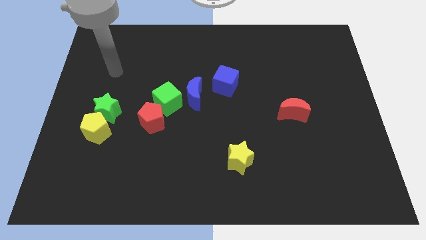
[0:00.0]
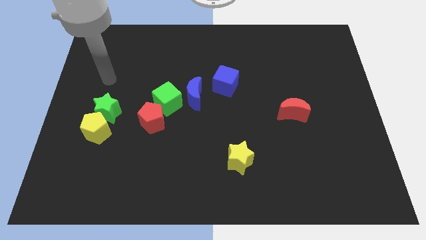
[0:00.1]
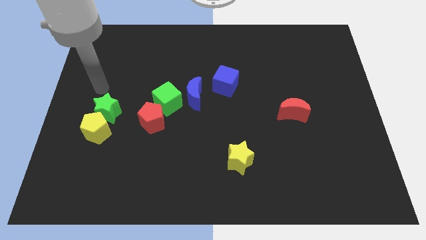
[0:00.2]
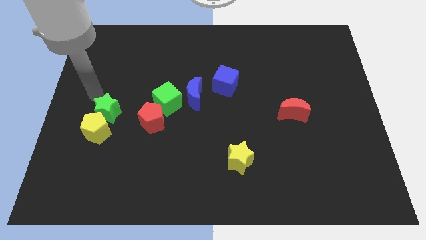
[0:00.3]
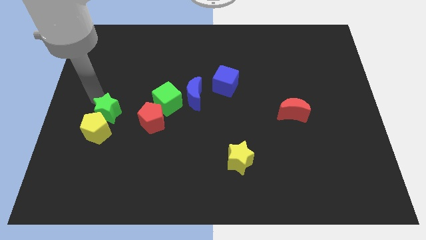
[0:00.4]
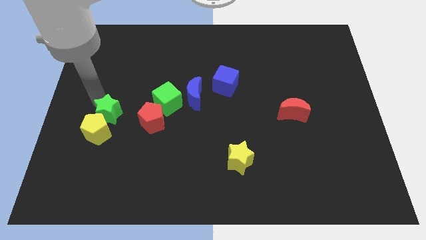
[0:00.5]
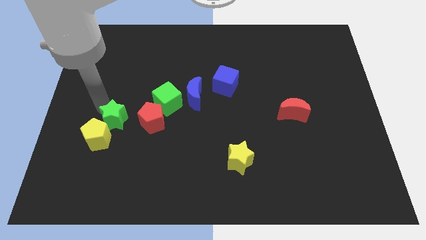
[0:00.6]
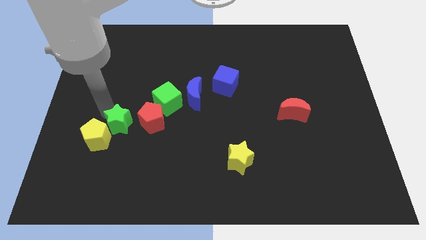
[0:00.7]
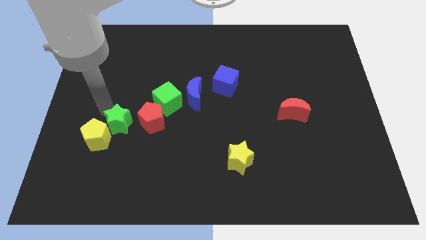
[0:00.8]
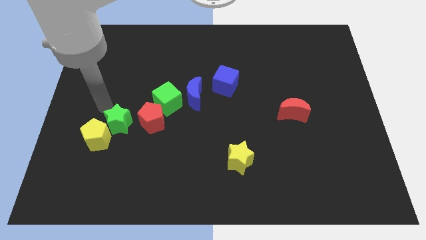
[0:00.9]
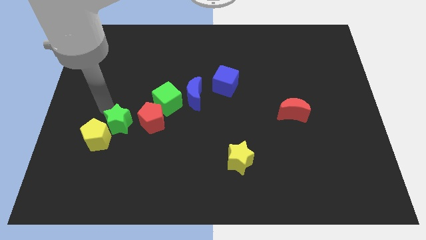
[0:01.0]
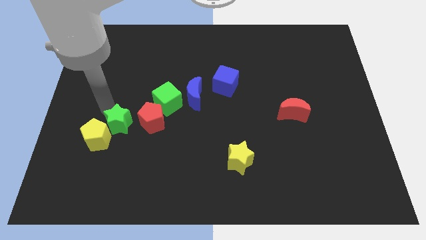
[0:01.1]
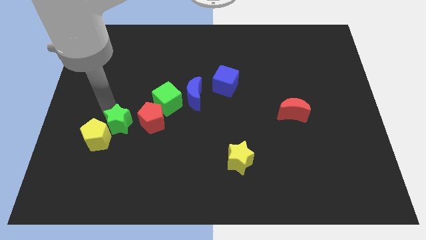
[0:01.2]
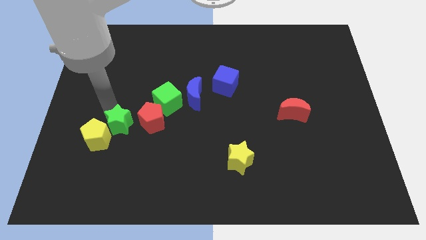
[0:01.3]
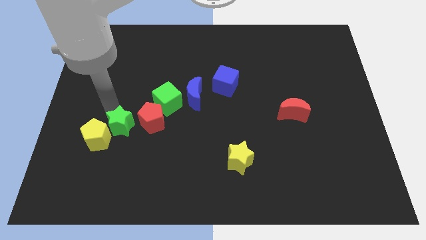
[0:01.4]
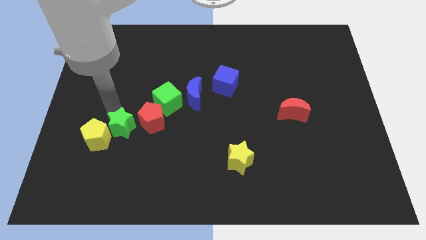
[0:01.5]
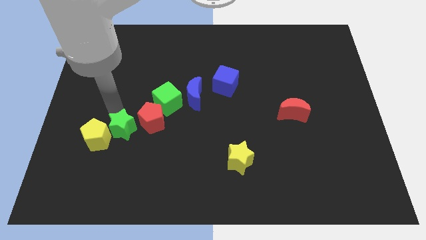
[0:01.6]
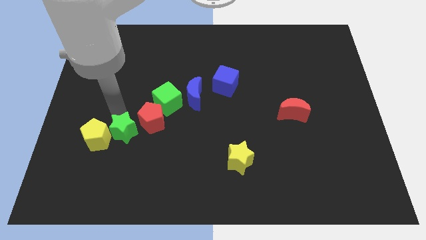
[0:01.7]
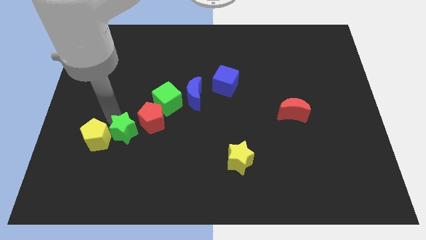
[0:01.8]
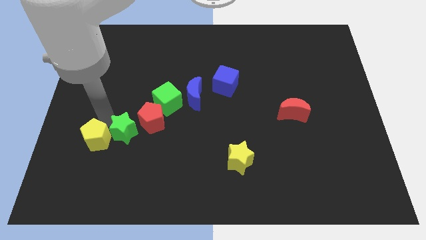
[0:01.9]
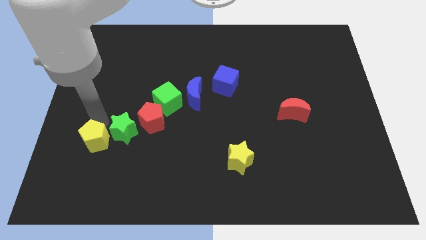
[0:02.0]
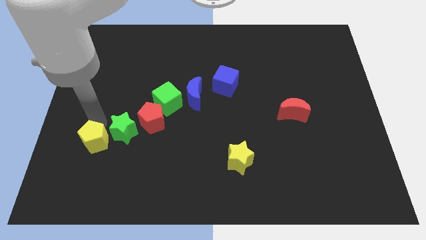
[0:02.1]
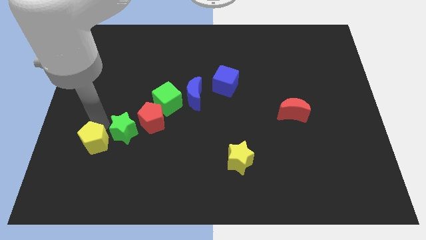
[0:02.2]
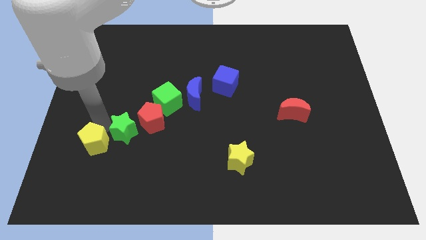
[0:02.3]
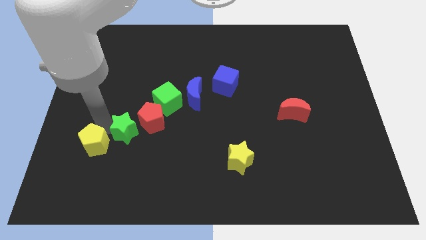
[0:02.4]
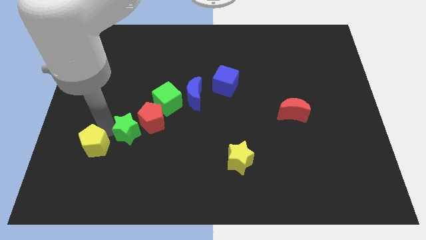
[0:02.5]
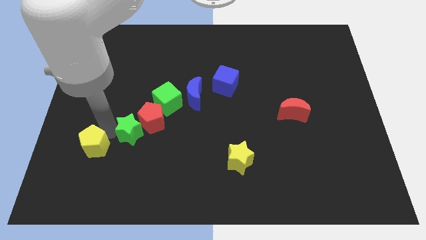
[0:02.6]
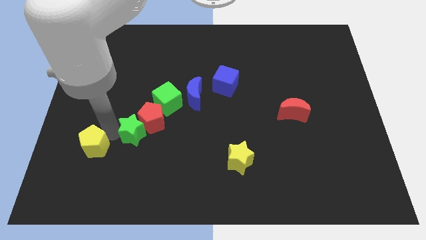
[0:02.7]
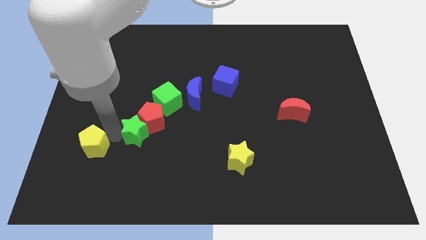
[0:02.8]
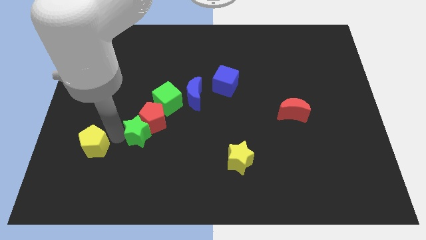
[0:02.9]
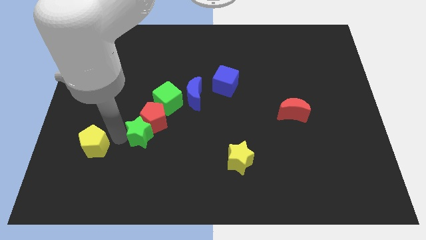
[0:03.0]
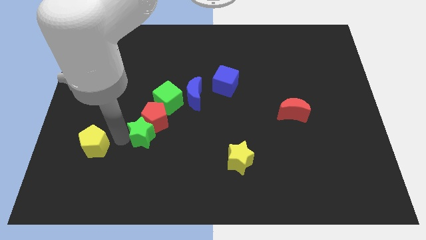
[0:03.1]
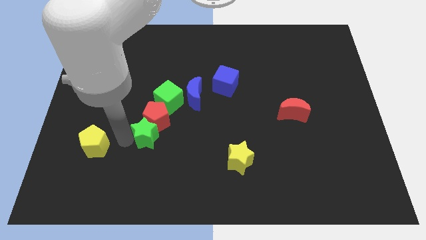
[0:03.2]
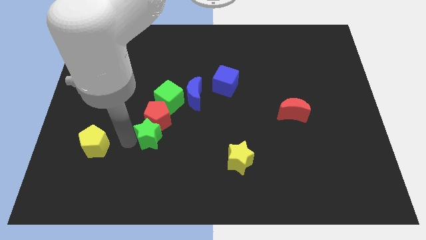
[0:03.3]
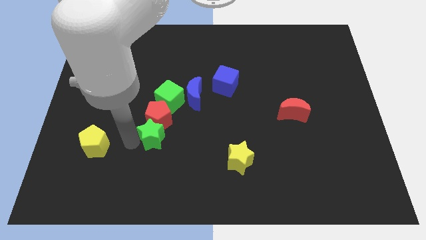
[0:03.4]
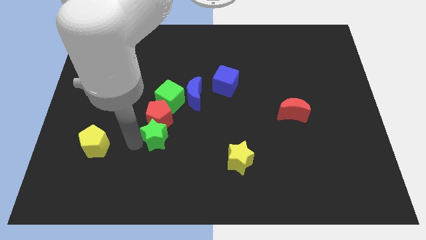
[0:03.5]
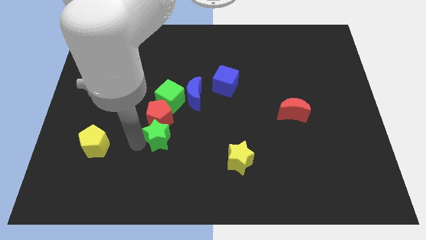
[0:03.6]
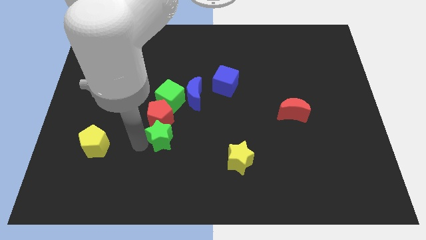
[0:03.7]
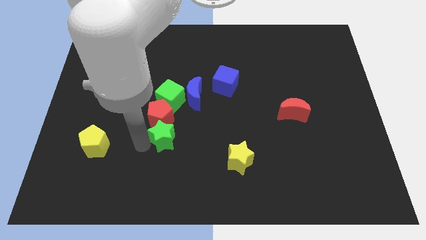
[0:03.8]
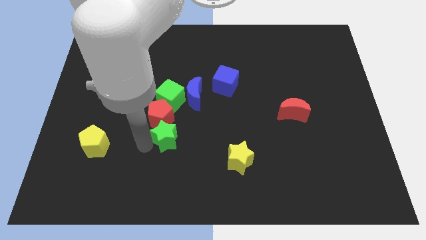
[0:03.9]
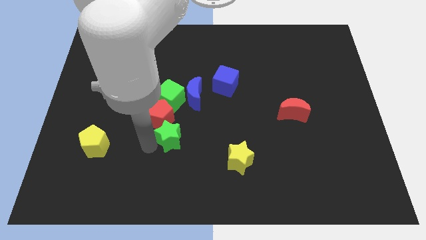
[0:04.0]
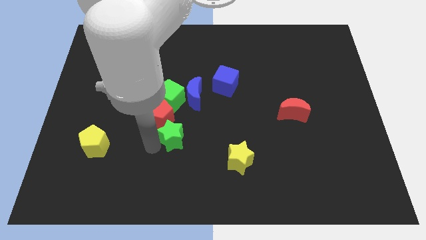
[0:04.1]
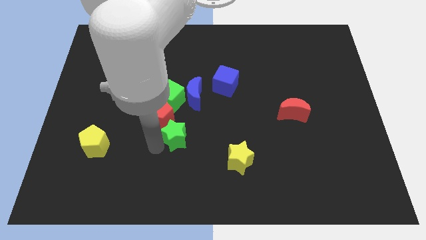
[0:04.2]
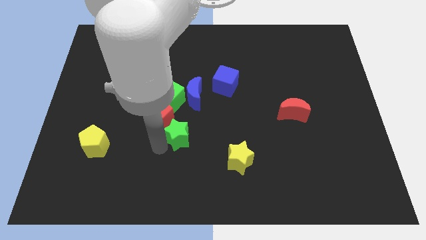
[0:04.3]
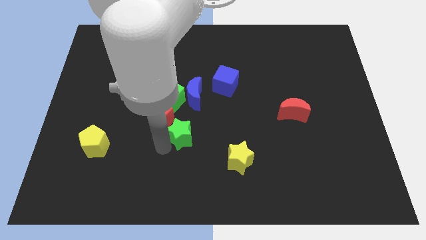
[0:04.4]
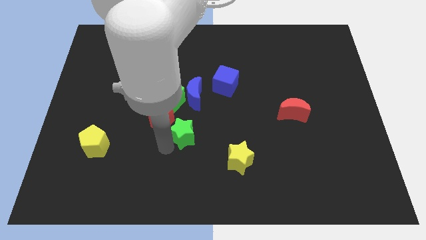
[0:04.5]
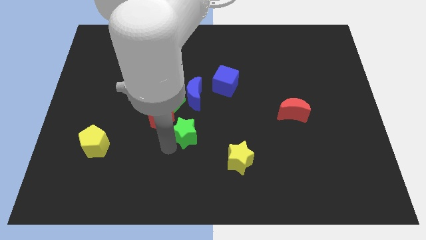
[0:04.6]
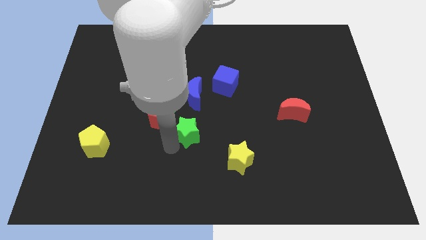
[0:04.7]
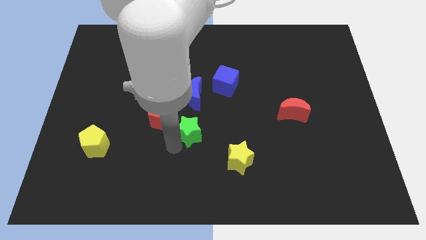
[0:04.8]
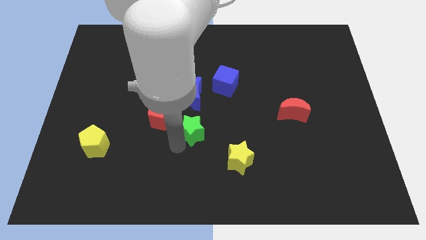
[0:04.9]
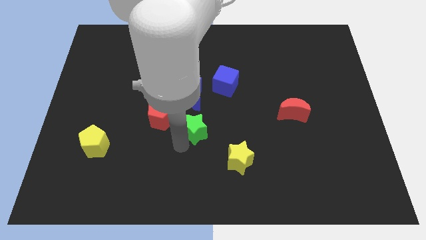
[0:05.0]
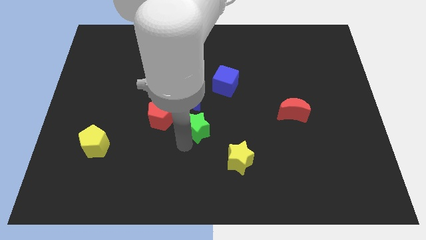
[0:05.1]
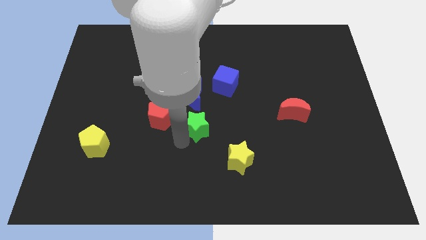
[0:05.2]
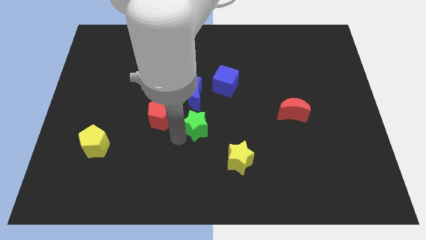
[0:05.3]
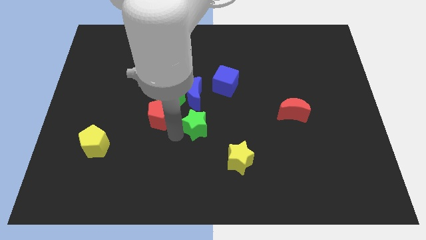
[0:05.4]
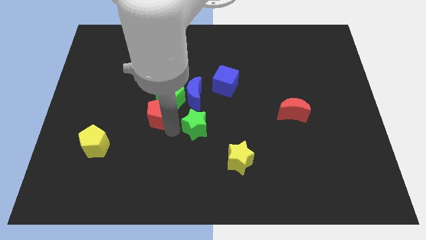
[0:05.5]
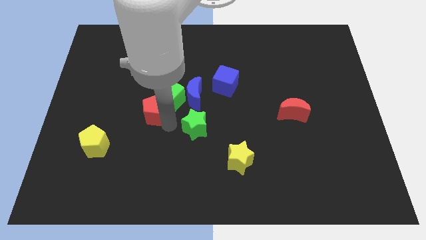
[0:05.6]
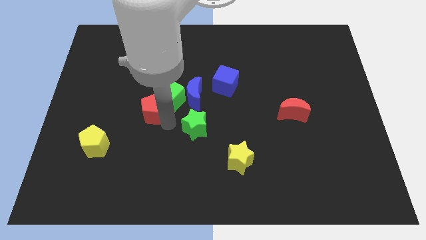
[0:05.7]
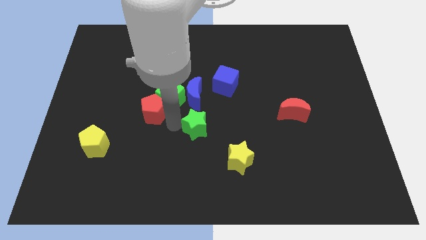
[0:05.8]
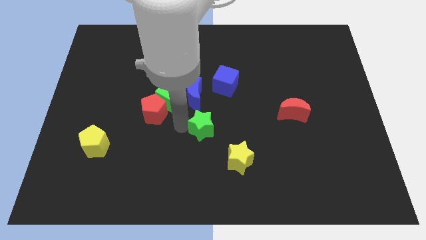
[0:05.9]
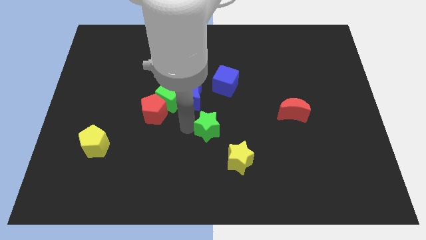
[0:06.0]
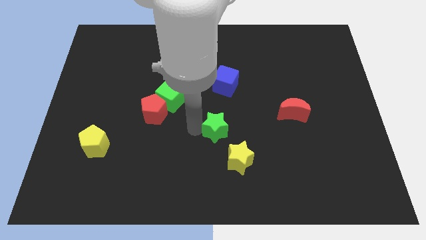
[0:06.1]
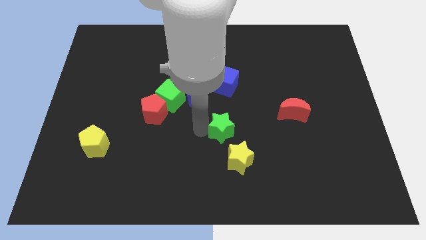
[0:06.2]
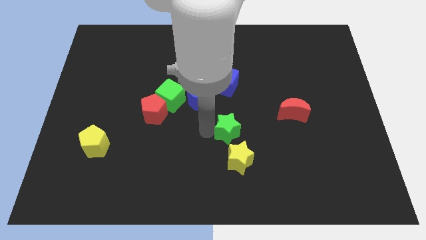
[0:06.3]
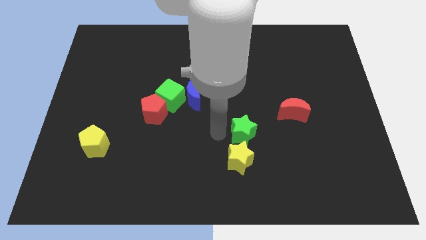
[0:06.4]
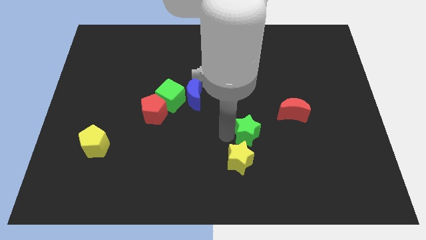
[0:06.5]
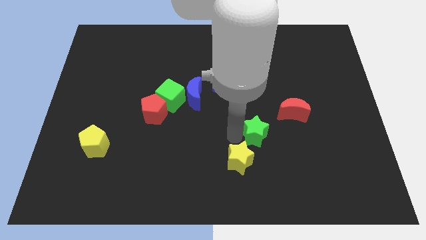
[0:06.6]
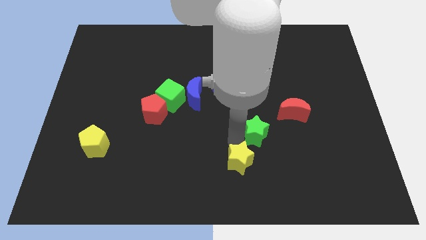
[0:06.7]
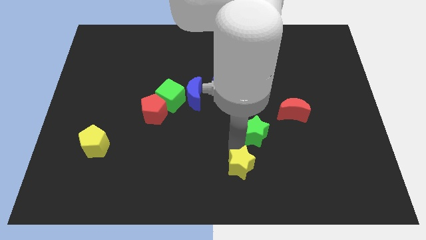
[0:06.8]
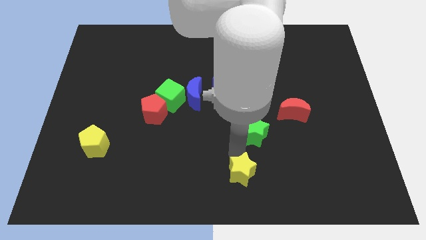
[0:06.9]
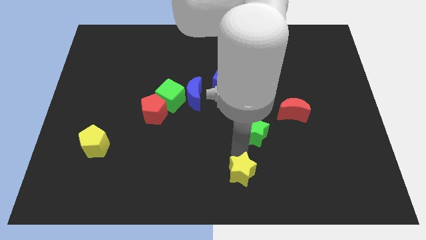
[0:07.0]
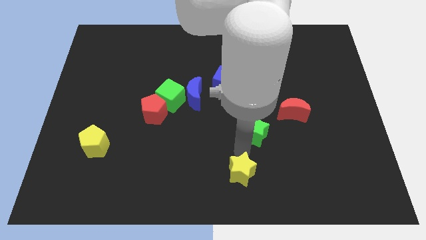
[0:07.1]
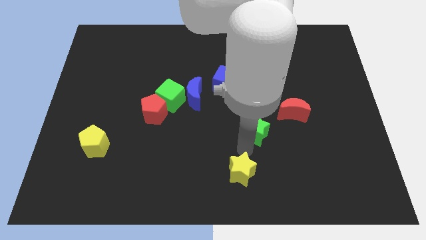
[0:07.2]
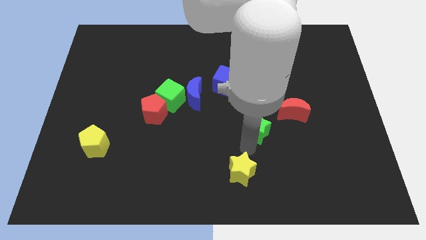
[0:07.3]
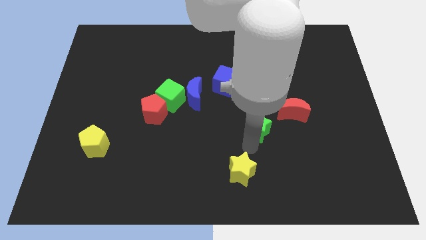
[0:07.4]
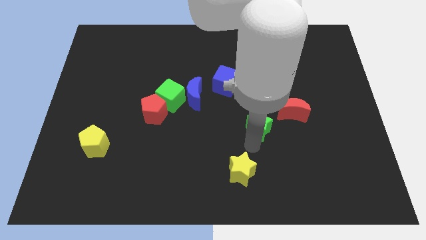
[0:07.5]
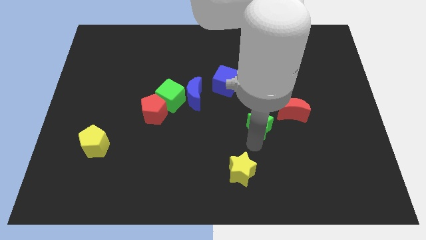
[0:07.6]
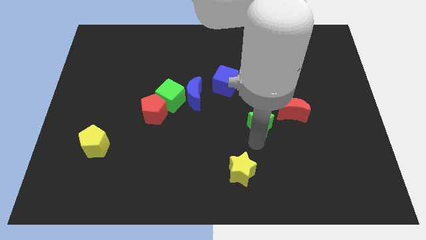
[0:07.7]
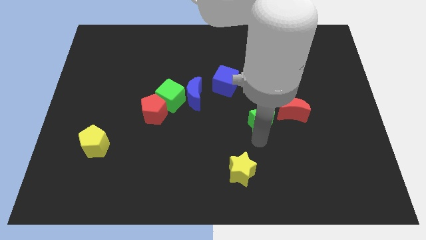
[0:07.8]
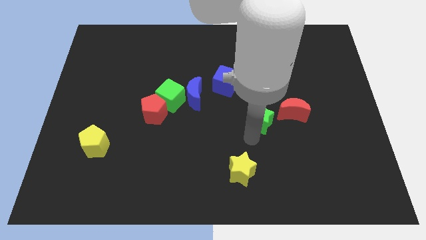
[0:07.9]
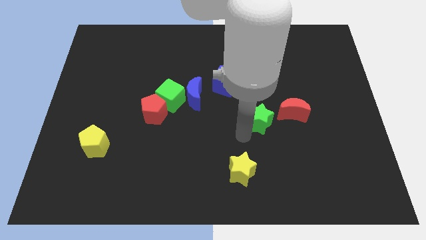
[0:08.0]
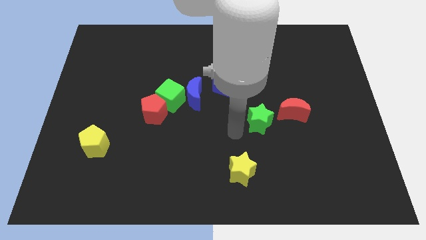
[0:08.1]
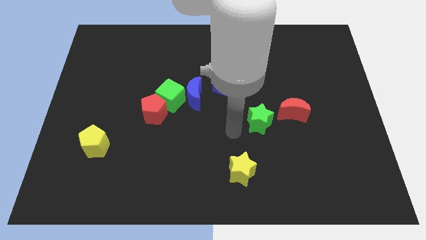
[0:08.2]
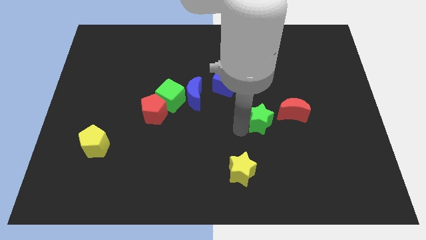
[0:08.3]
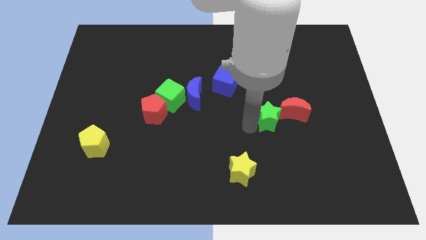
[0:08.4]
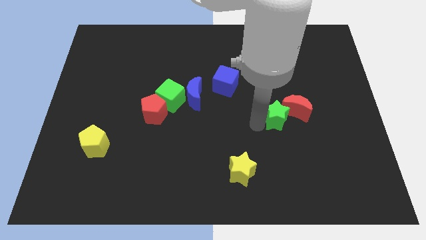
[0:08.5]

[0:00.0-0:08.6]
put the green star to the red moon
